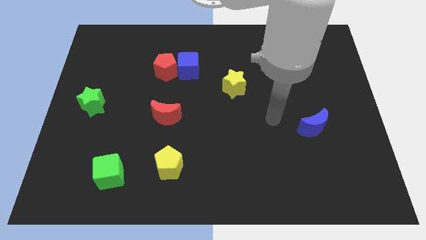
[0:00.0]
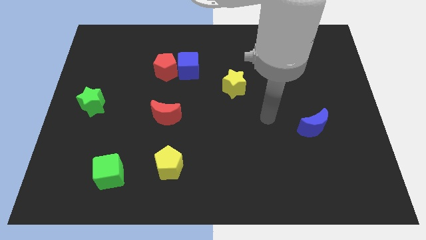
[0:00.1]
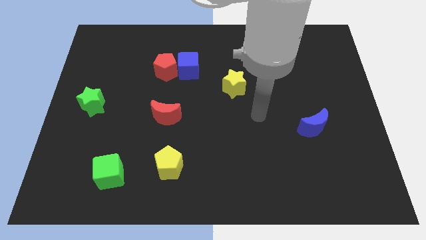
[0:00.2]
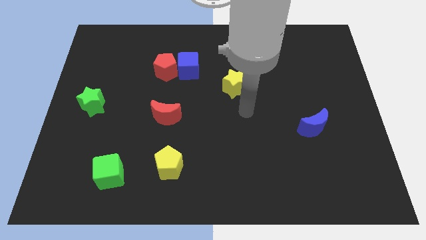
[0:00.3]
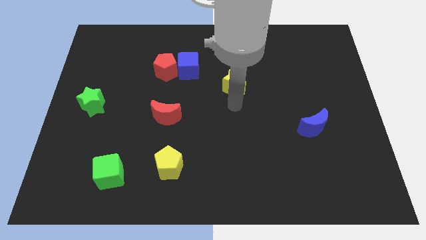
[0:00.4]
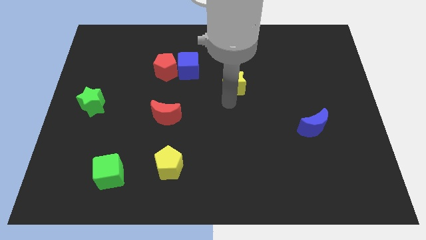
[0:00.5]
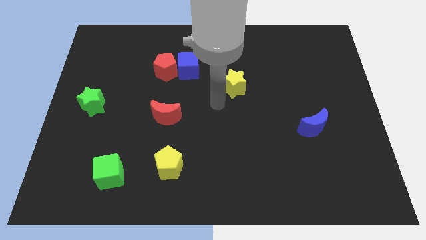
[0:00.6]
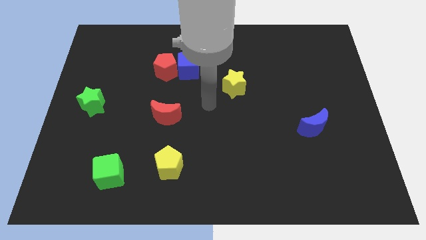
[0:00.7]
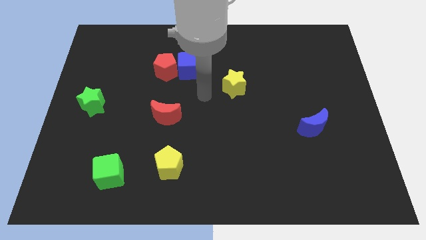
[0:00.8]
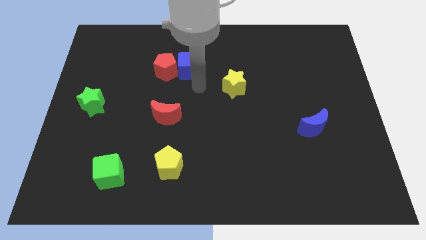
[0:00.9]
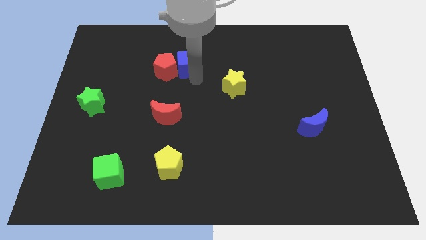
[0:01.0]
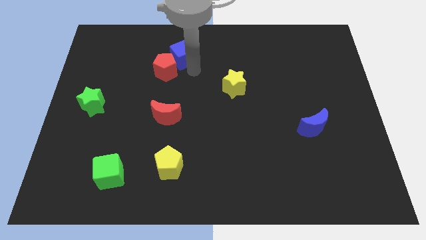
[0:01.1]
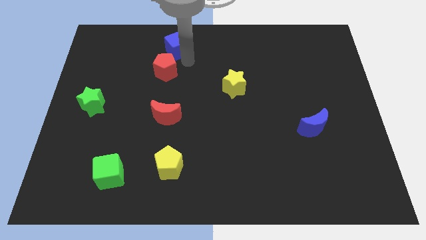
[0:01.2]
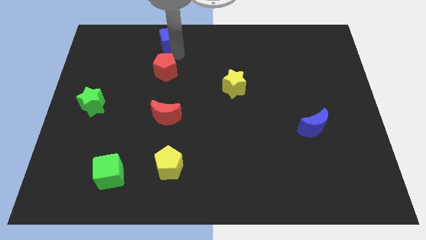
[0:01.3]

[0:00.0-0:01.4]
move the red pentagon away from the blue cube

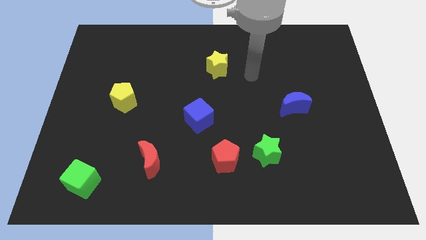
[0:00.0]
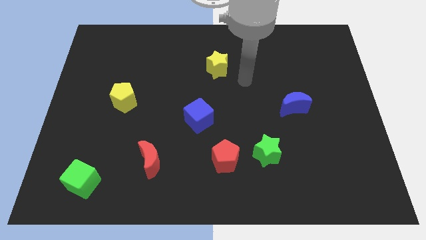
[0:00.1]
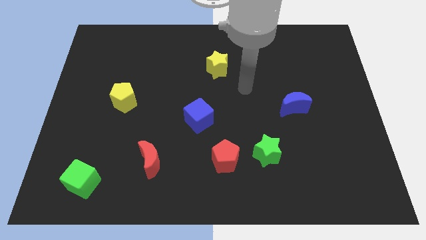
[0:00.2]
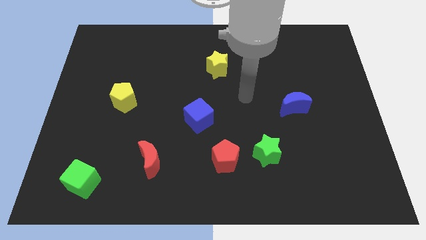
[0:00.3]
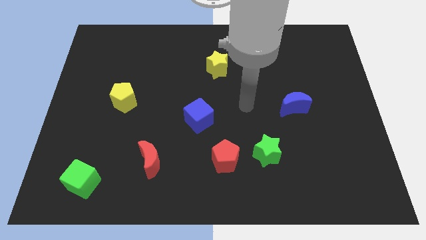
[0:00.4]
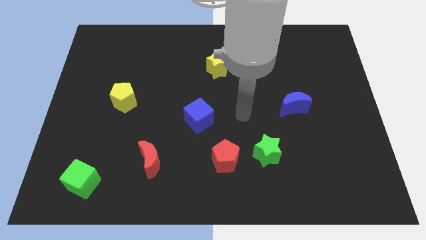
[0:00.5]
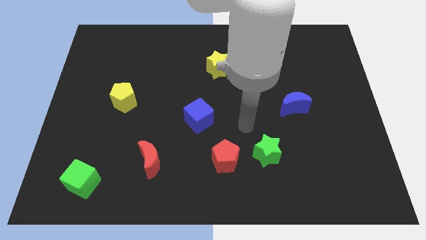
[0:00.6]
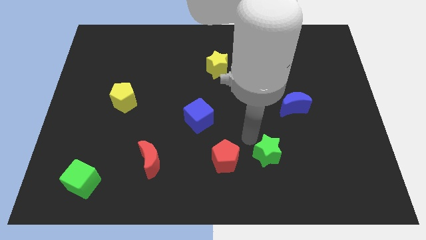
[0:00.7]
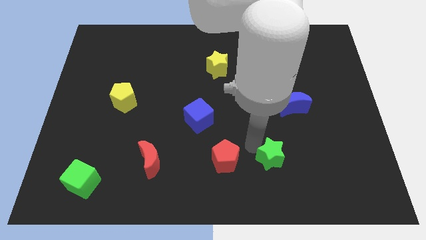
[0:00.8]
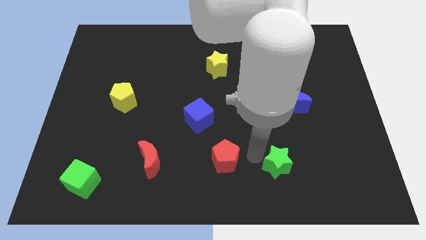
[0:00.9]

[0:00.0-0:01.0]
separate the red pentagon from the green star

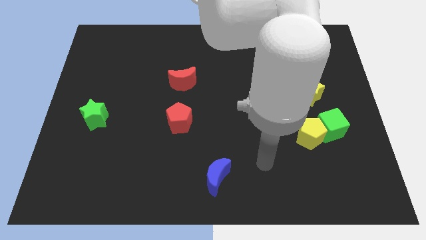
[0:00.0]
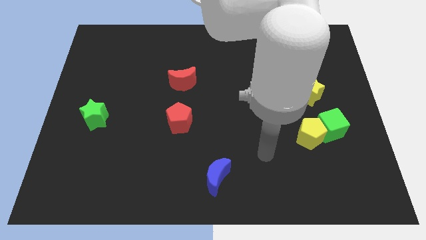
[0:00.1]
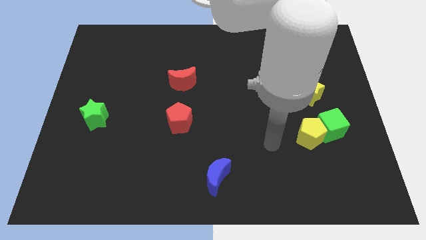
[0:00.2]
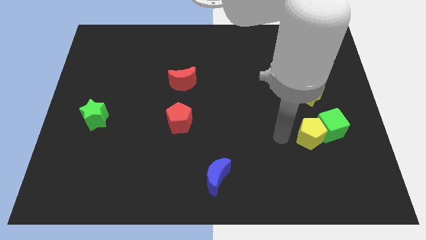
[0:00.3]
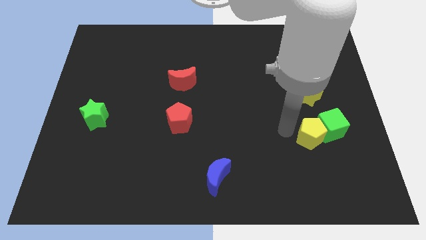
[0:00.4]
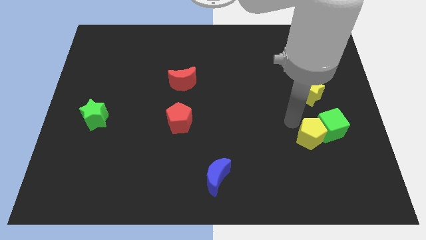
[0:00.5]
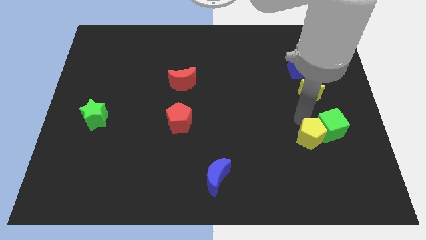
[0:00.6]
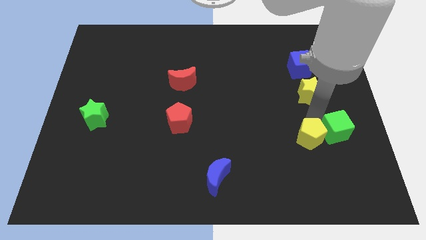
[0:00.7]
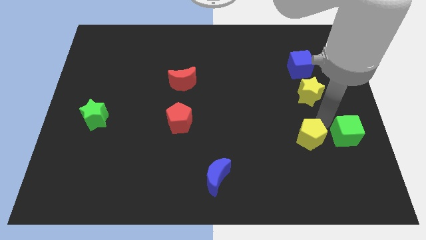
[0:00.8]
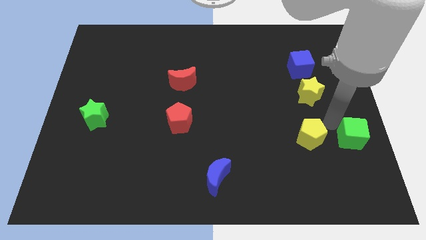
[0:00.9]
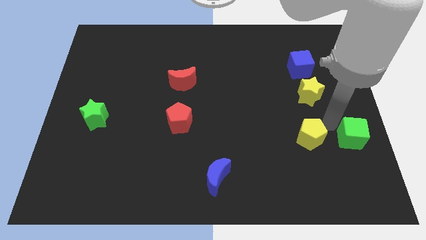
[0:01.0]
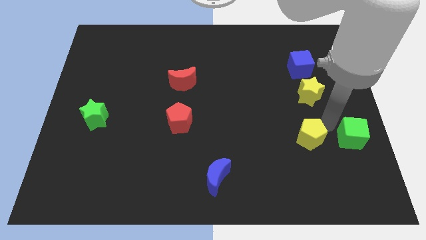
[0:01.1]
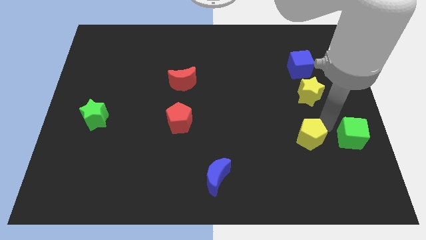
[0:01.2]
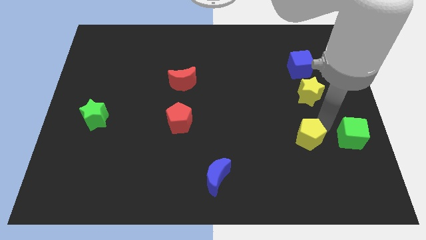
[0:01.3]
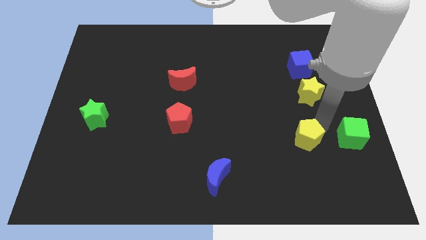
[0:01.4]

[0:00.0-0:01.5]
move the yellow pentagon away from the green cube

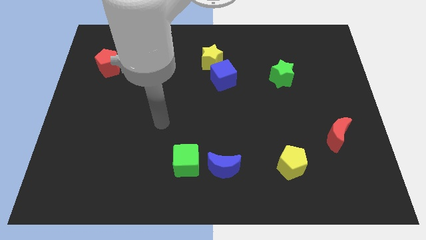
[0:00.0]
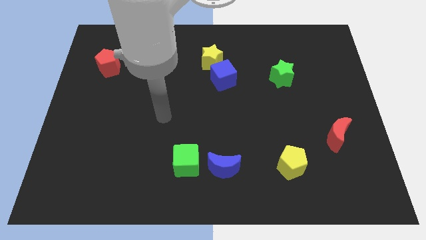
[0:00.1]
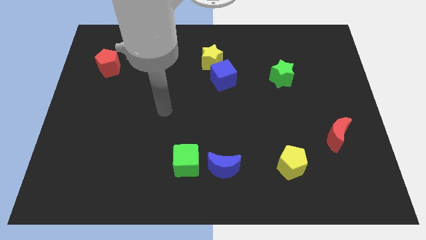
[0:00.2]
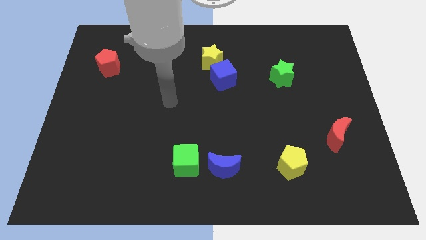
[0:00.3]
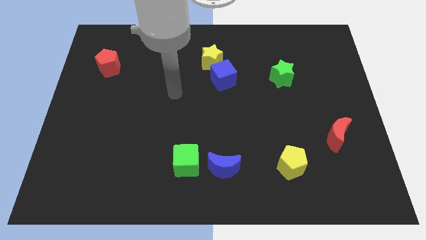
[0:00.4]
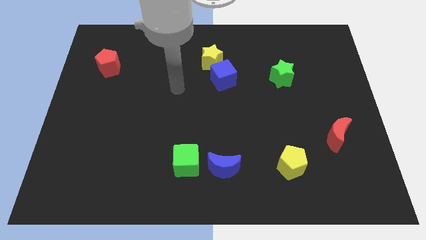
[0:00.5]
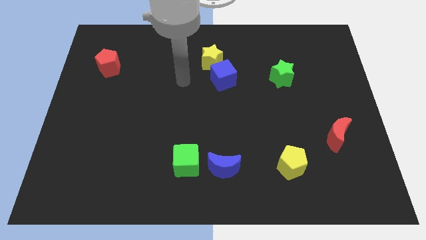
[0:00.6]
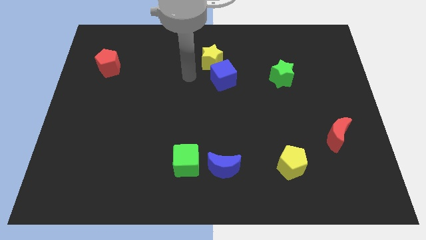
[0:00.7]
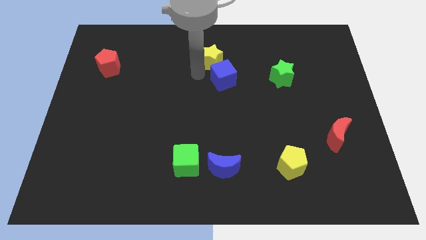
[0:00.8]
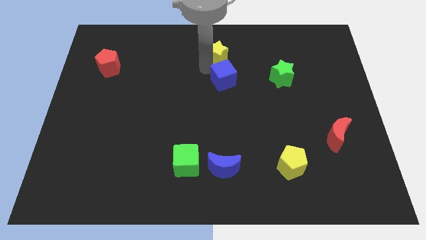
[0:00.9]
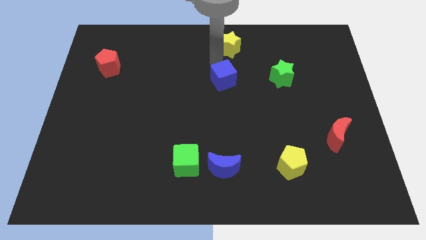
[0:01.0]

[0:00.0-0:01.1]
pull the blue cube apart from the yellow star

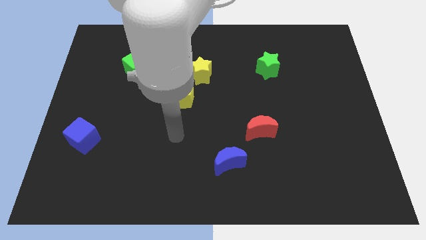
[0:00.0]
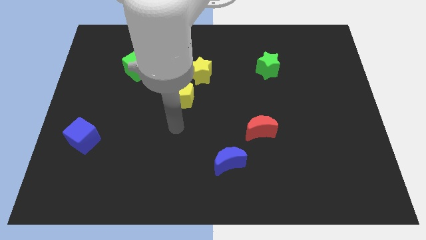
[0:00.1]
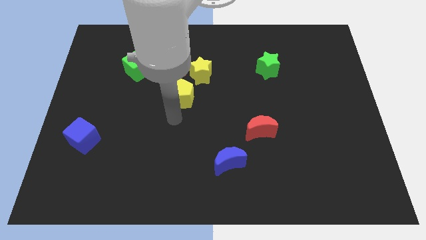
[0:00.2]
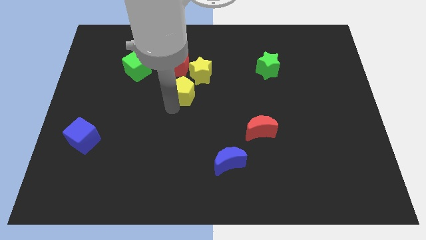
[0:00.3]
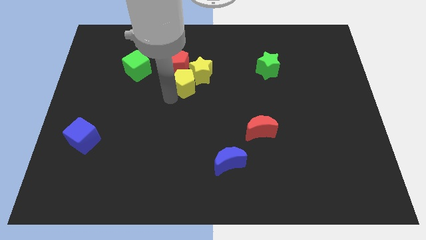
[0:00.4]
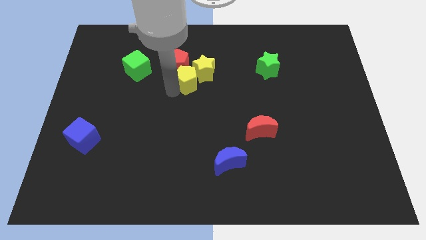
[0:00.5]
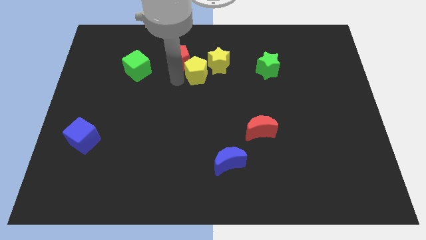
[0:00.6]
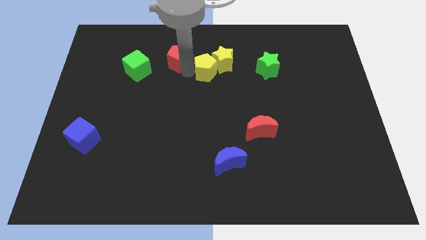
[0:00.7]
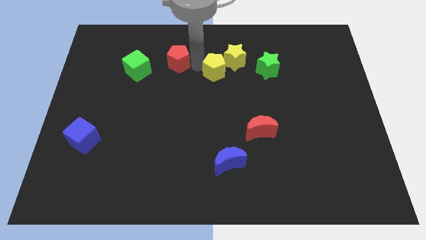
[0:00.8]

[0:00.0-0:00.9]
separate the yellow star from the red pentagon and yellow pentagon

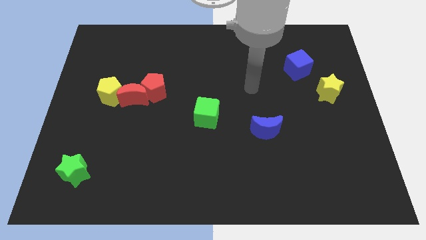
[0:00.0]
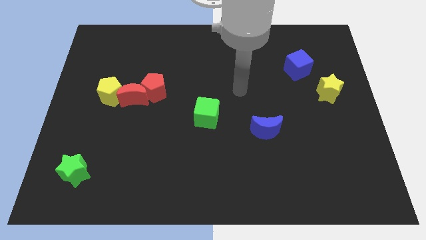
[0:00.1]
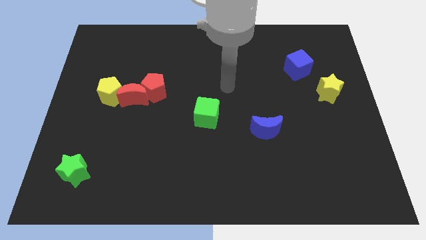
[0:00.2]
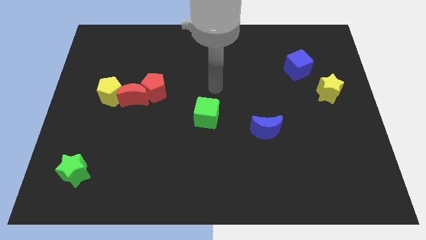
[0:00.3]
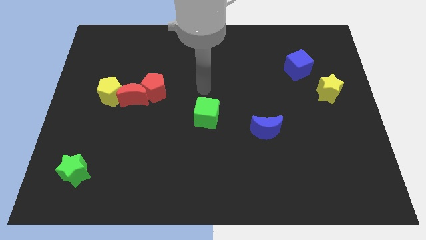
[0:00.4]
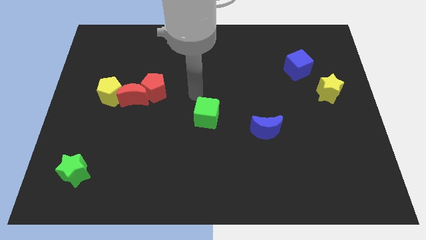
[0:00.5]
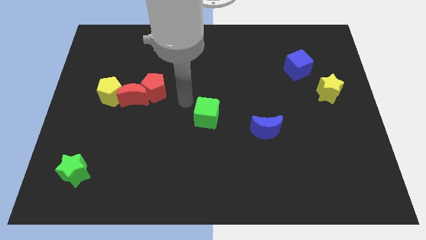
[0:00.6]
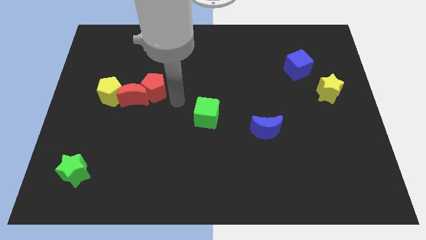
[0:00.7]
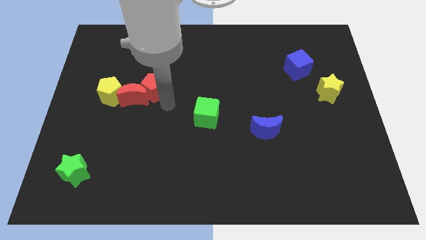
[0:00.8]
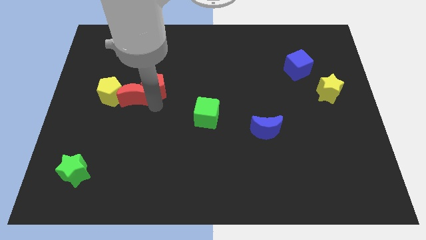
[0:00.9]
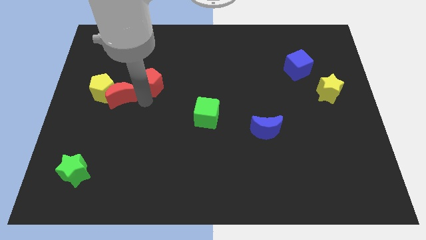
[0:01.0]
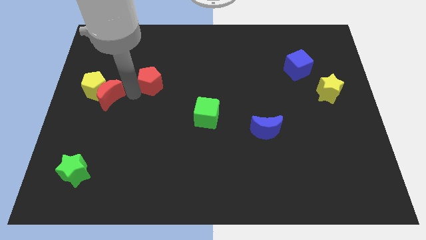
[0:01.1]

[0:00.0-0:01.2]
move the red pentagon away from the red moon

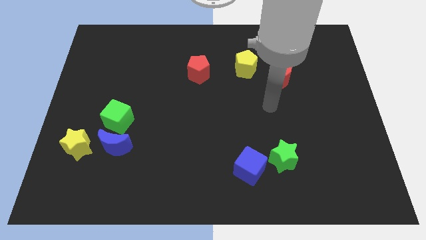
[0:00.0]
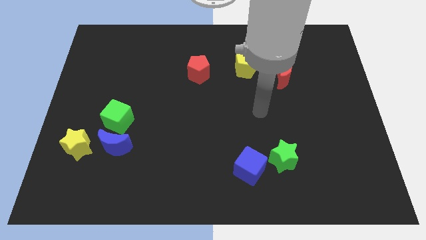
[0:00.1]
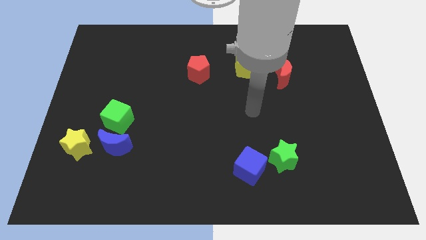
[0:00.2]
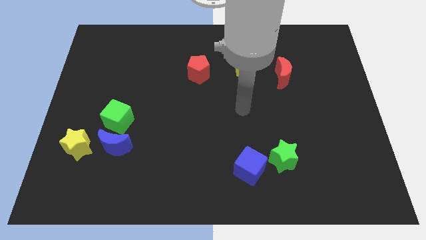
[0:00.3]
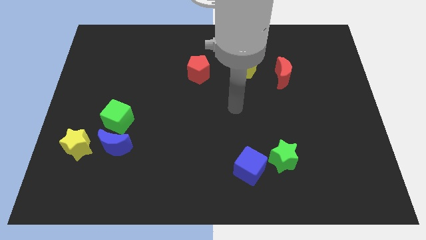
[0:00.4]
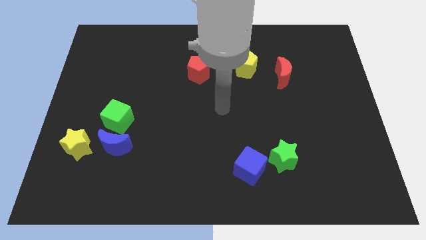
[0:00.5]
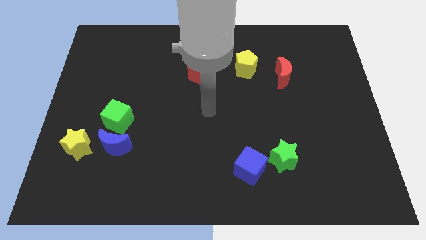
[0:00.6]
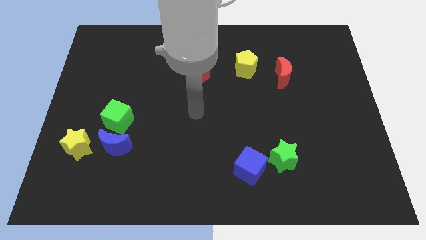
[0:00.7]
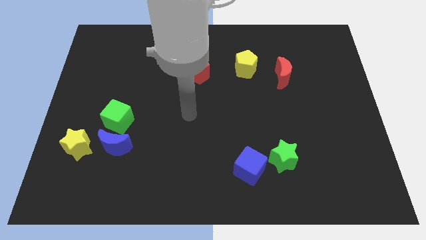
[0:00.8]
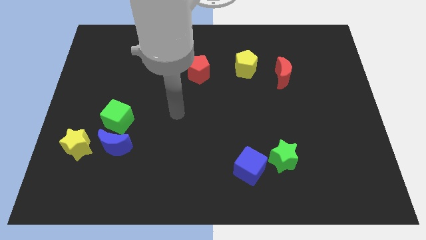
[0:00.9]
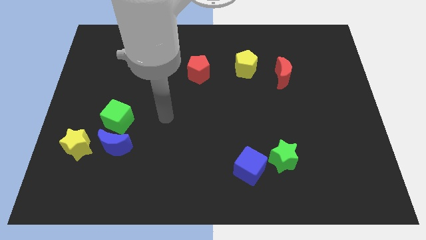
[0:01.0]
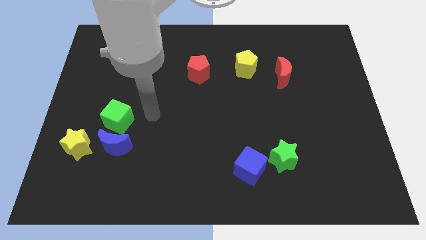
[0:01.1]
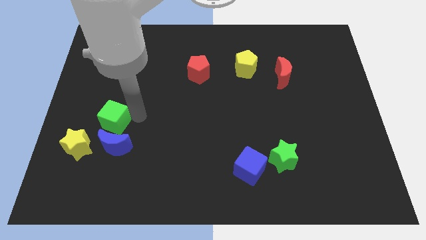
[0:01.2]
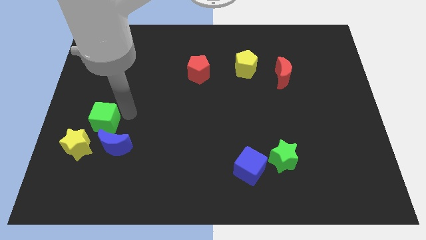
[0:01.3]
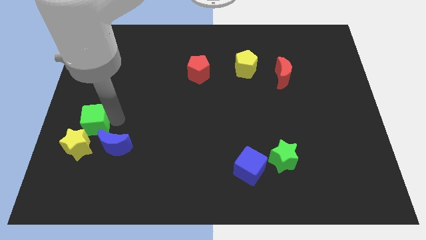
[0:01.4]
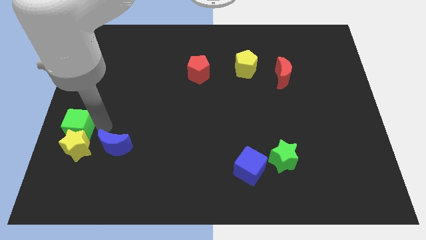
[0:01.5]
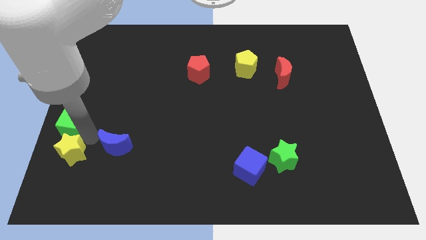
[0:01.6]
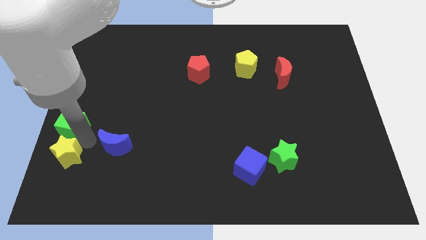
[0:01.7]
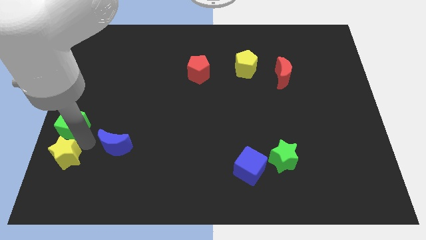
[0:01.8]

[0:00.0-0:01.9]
move the blue moon away from the green cube and yellow star

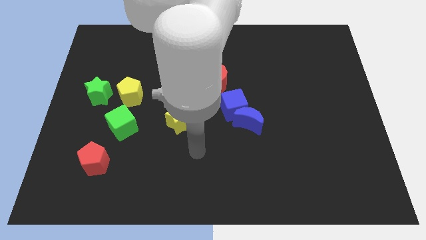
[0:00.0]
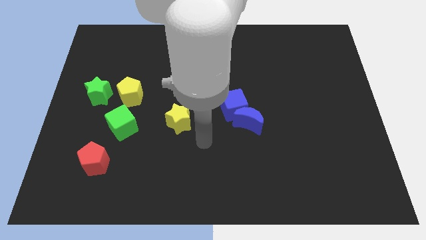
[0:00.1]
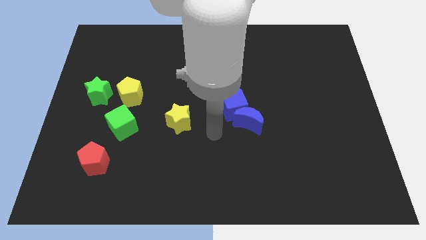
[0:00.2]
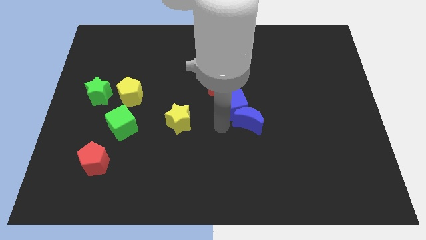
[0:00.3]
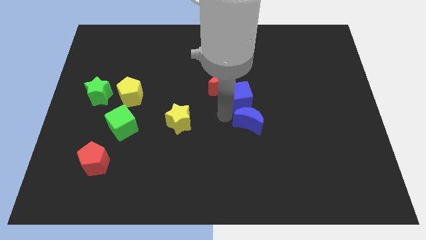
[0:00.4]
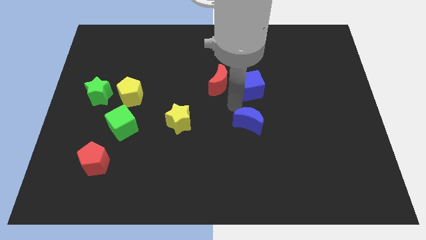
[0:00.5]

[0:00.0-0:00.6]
pull the blue moon apart from the blue cube
